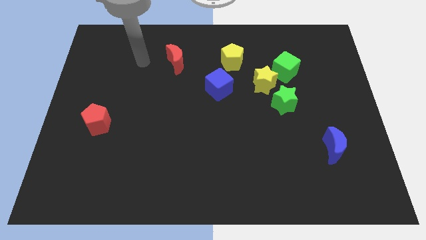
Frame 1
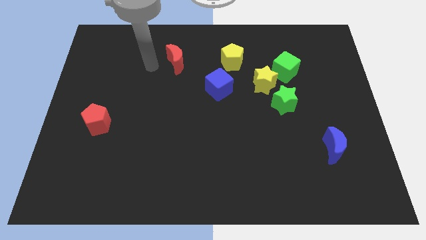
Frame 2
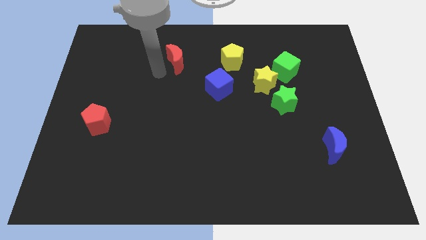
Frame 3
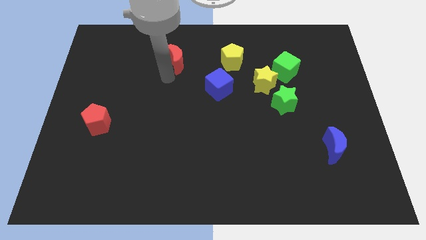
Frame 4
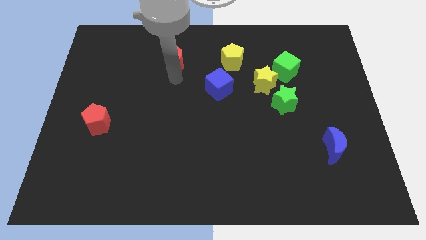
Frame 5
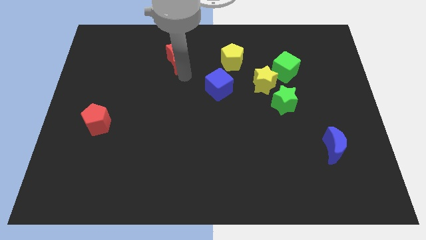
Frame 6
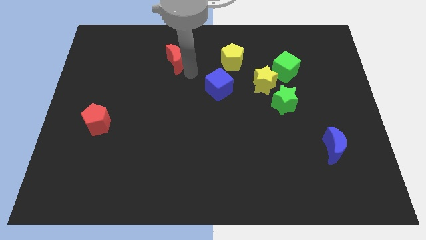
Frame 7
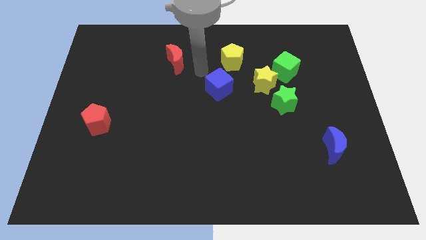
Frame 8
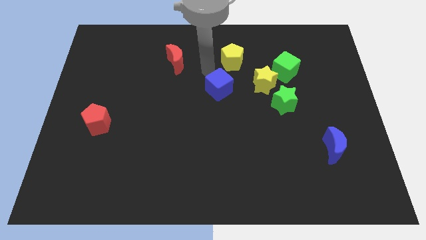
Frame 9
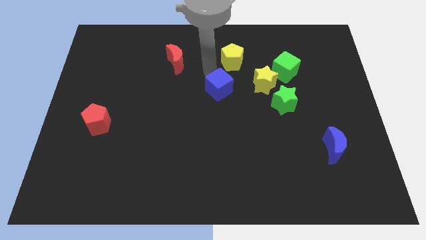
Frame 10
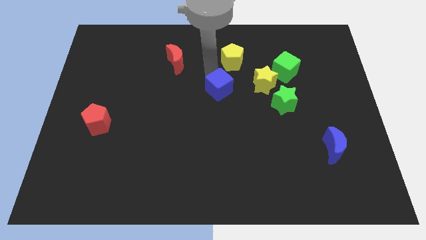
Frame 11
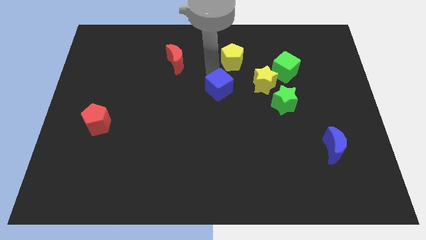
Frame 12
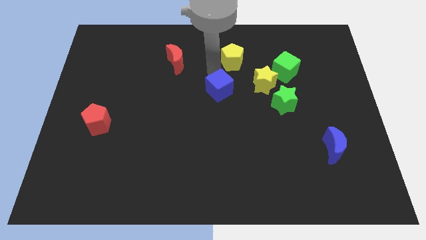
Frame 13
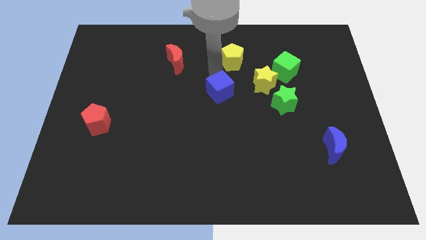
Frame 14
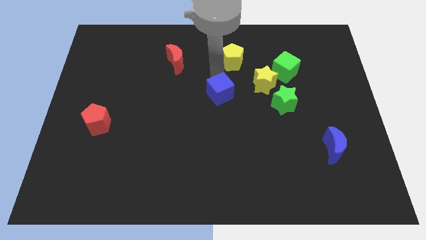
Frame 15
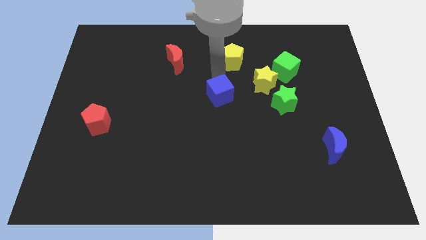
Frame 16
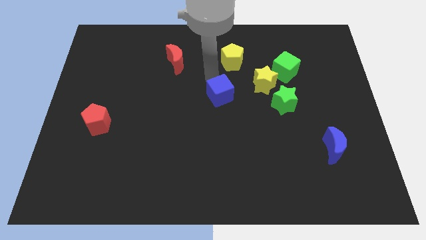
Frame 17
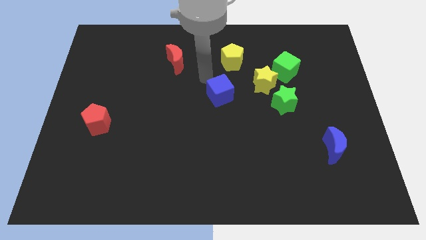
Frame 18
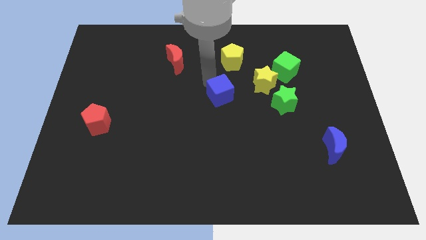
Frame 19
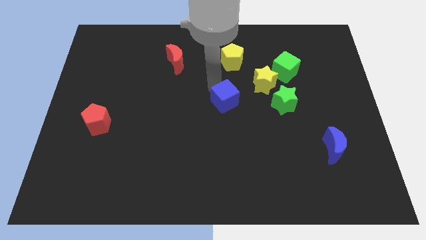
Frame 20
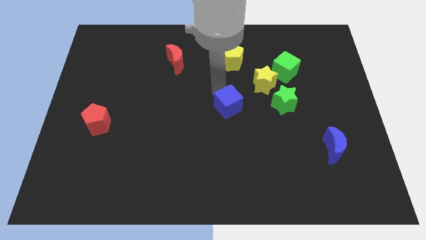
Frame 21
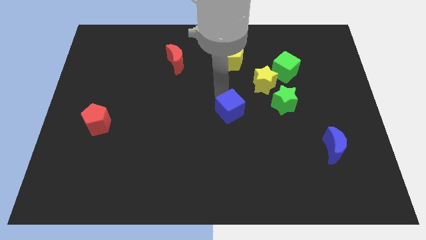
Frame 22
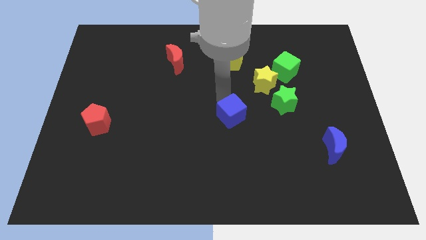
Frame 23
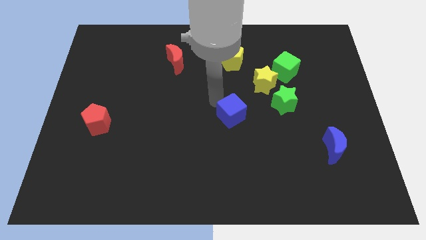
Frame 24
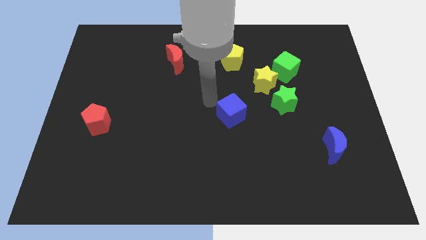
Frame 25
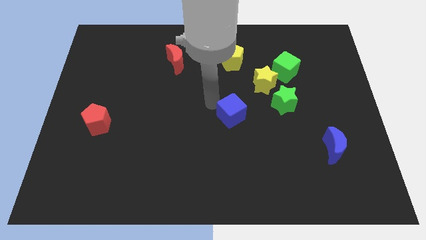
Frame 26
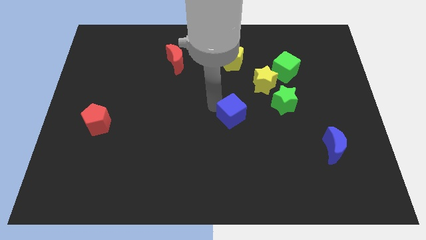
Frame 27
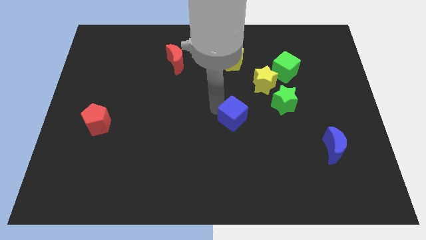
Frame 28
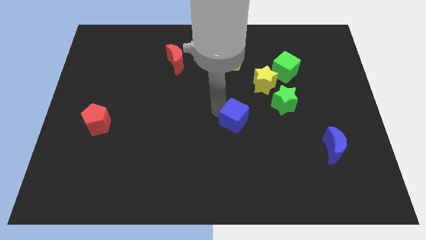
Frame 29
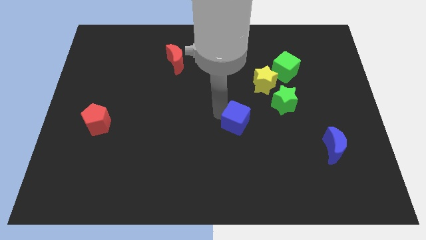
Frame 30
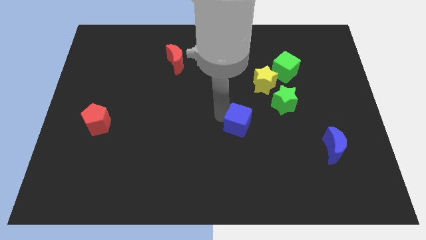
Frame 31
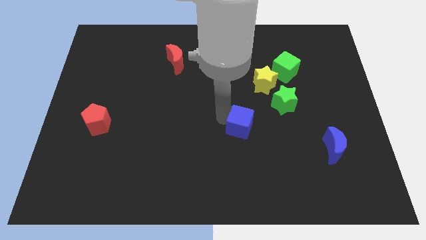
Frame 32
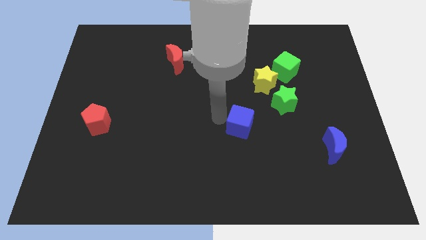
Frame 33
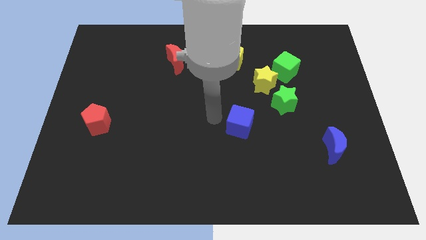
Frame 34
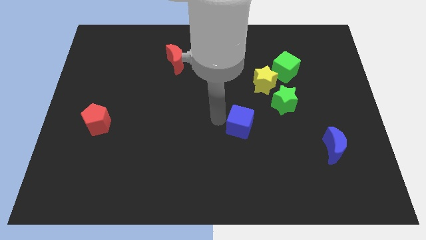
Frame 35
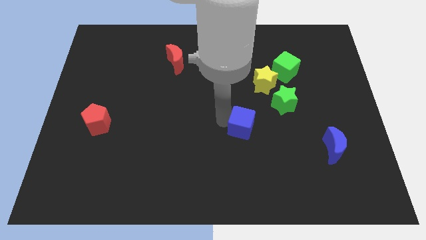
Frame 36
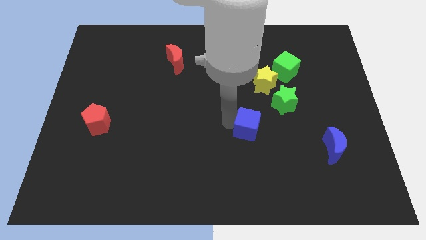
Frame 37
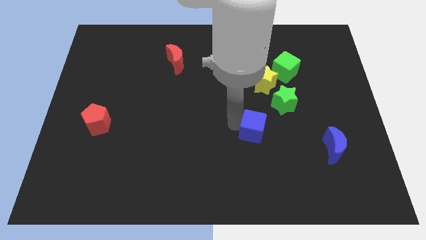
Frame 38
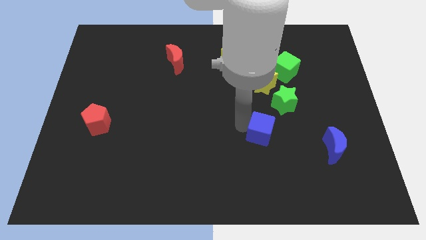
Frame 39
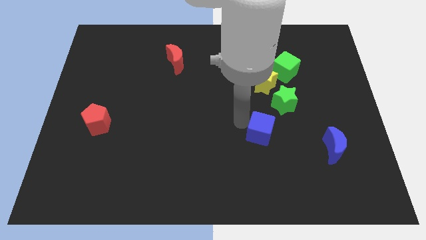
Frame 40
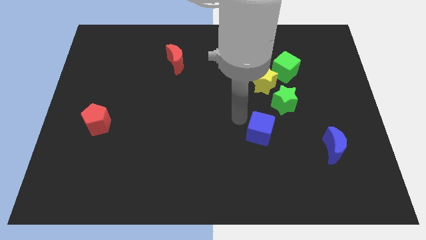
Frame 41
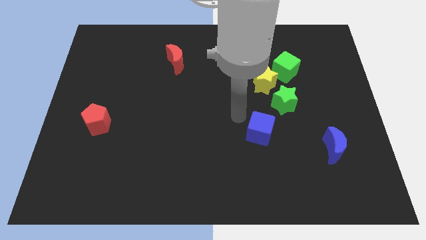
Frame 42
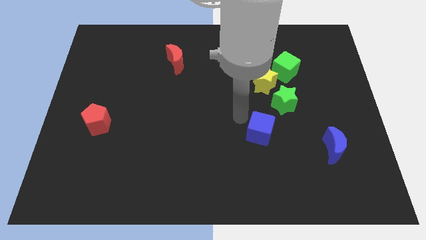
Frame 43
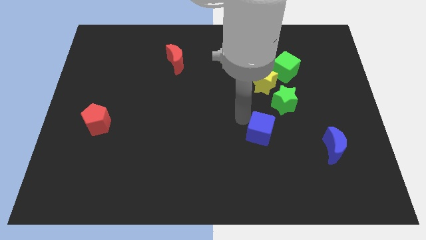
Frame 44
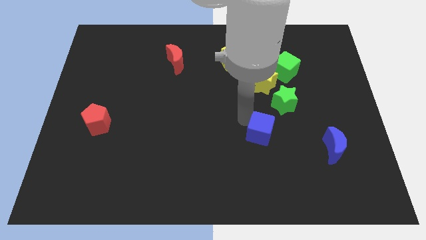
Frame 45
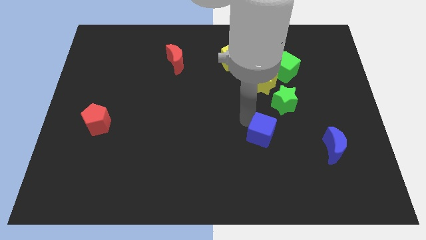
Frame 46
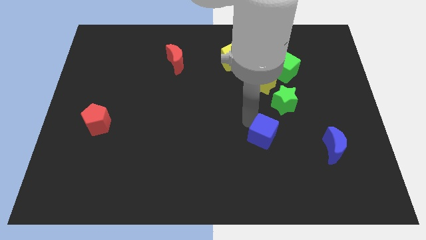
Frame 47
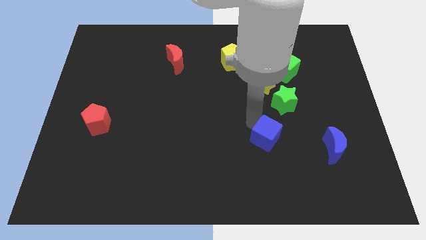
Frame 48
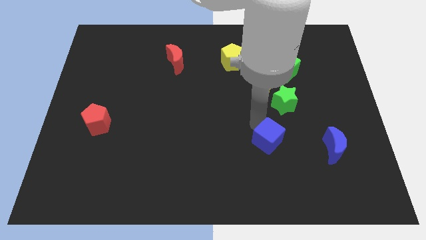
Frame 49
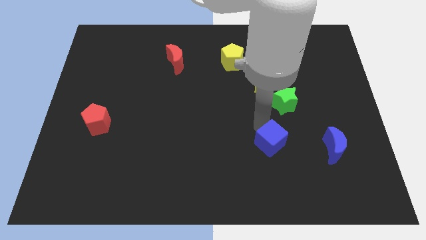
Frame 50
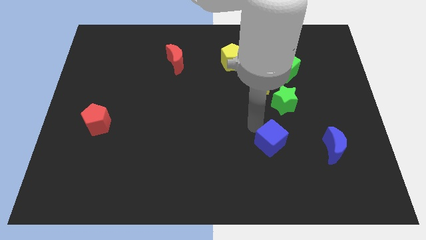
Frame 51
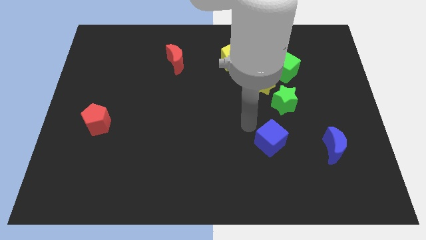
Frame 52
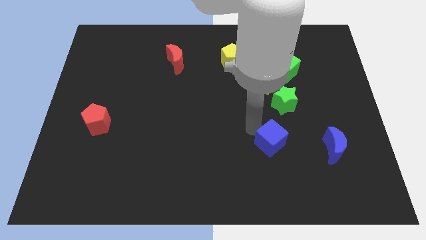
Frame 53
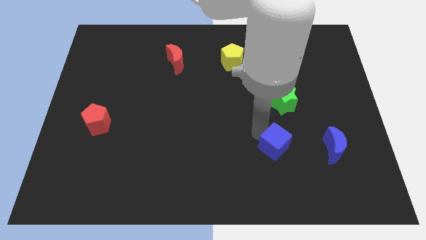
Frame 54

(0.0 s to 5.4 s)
move the blue cube diagonally downwards and to the right

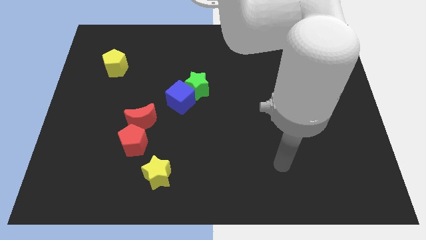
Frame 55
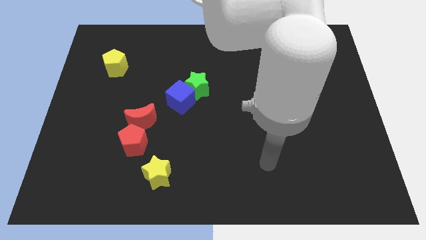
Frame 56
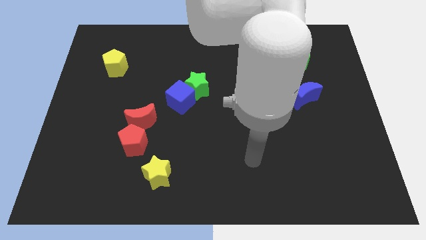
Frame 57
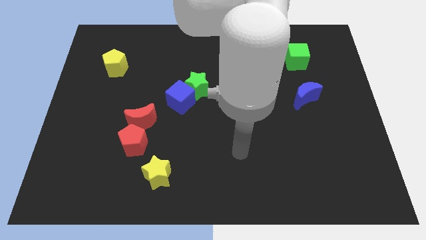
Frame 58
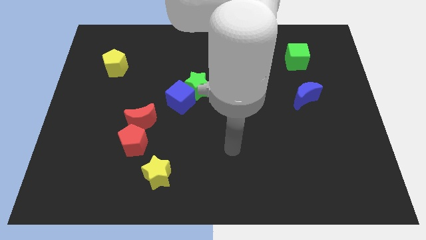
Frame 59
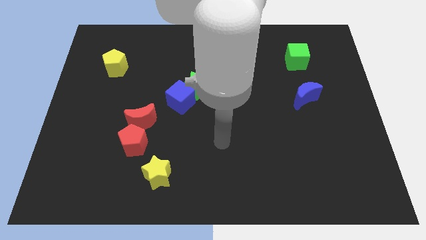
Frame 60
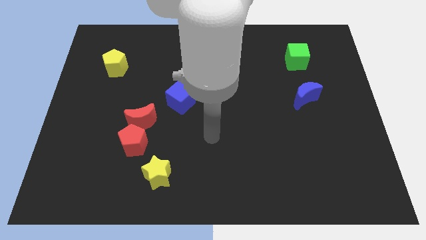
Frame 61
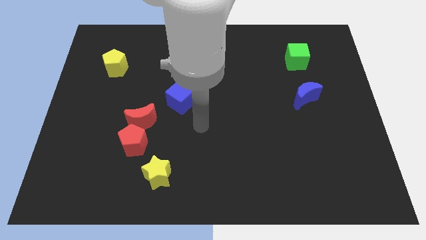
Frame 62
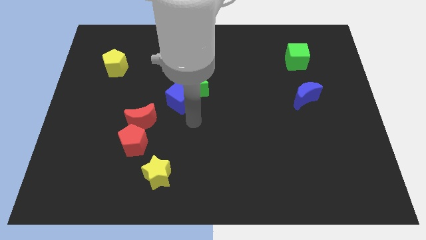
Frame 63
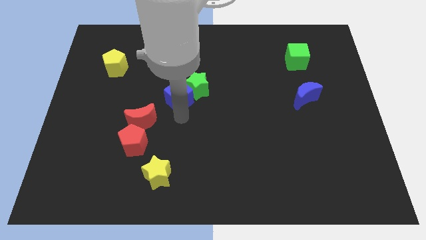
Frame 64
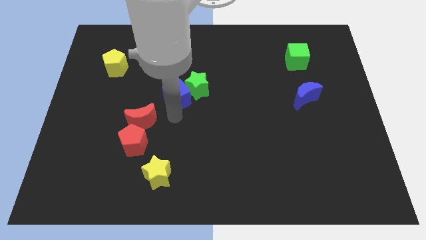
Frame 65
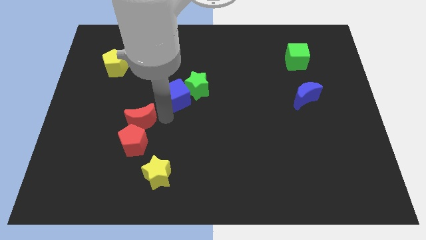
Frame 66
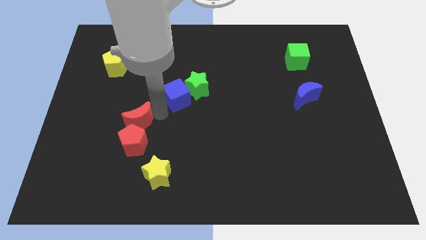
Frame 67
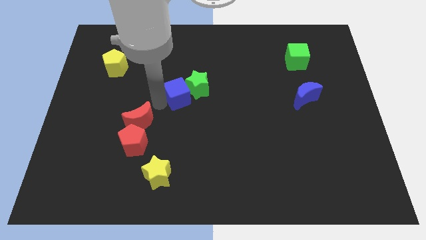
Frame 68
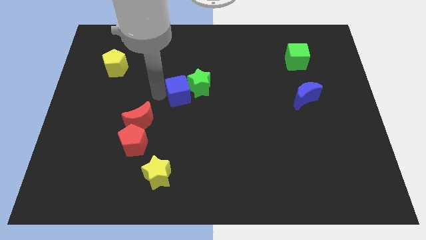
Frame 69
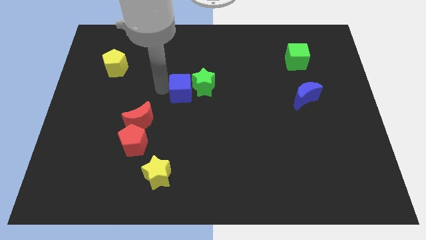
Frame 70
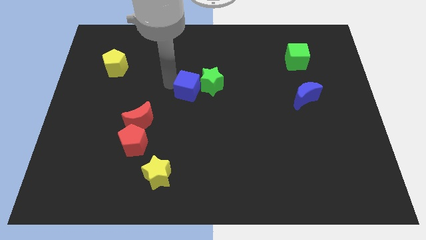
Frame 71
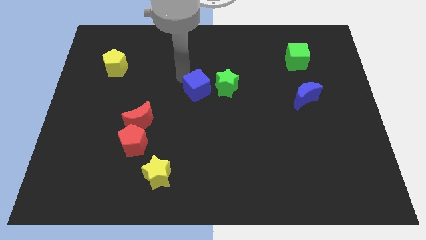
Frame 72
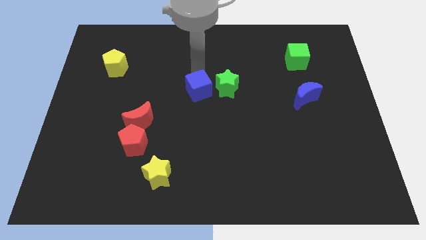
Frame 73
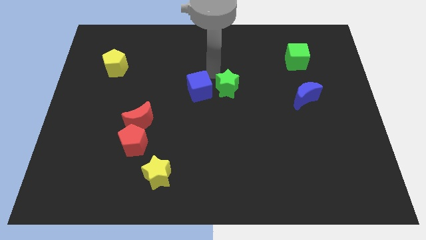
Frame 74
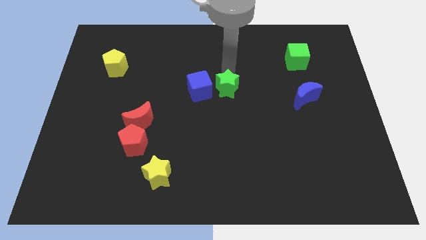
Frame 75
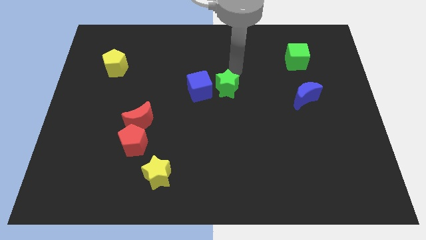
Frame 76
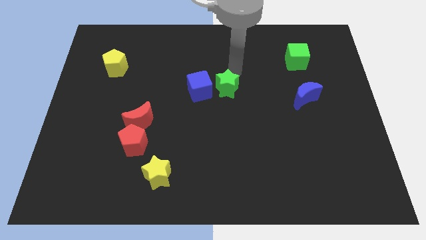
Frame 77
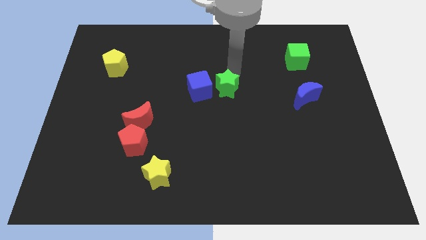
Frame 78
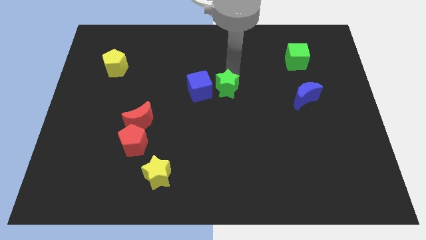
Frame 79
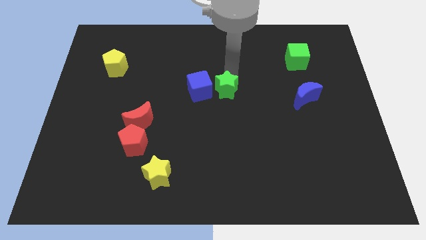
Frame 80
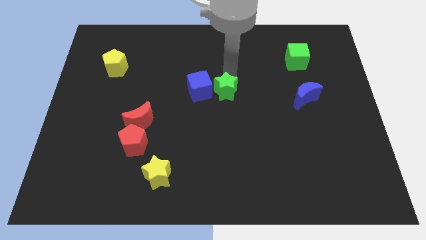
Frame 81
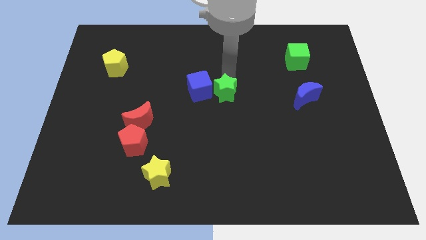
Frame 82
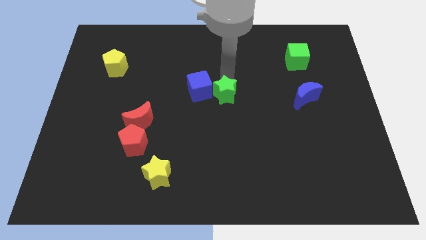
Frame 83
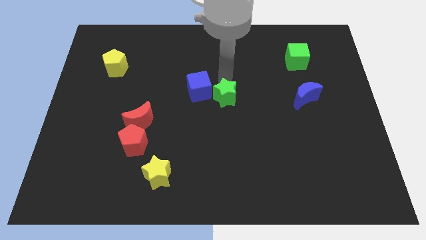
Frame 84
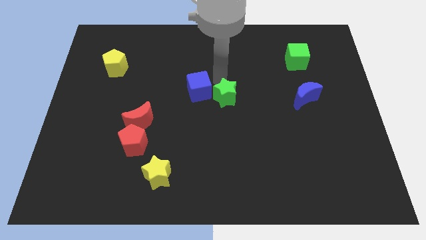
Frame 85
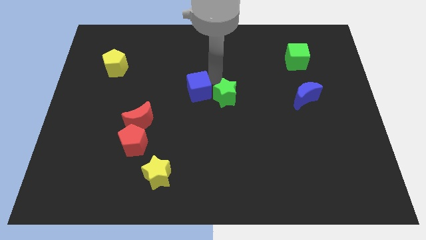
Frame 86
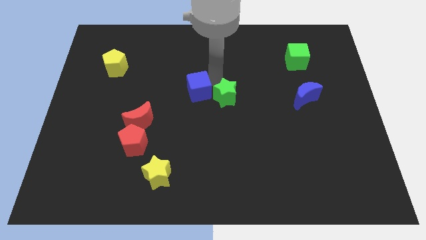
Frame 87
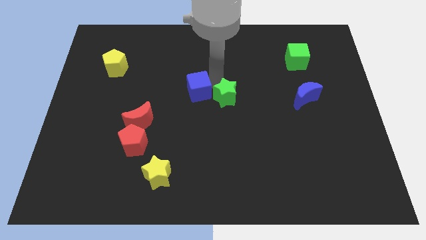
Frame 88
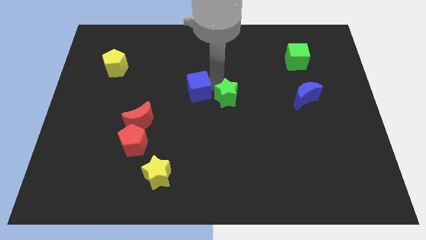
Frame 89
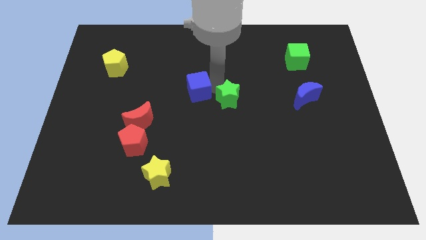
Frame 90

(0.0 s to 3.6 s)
slightly push the green star diagonally downwards and right
